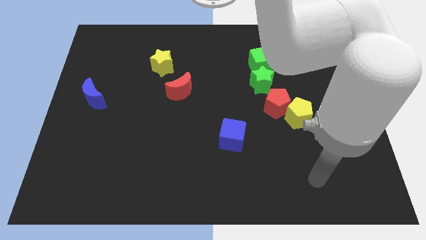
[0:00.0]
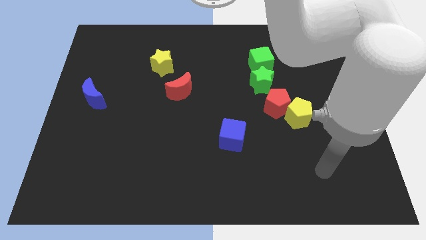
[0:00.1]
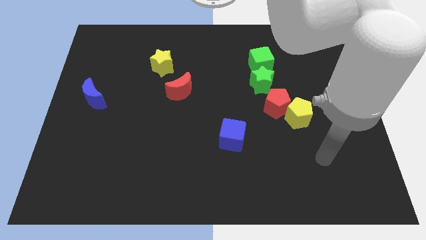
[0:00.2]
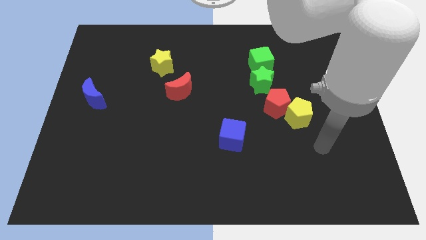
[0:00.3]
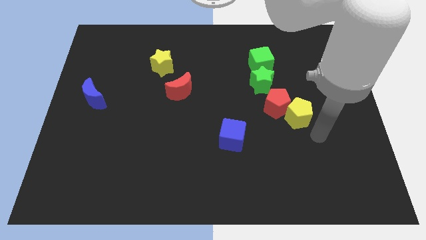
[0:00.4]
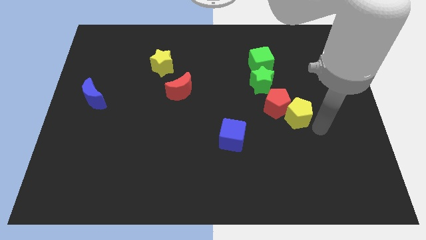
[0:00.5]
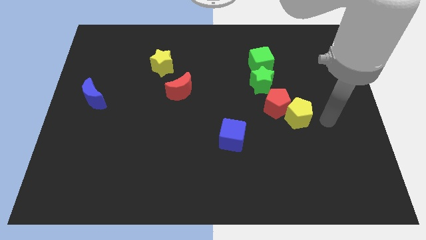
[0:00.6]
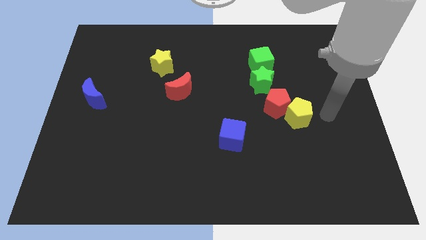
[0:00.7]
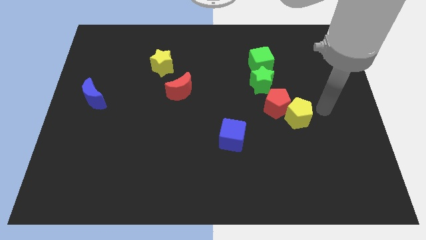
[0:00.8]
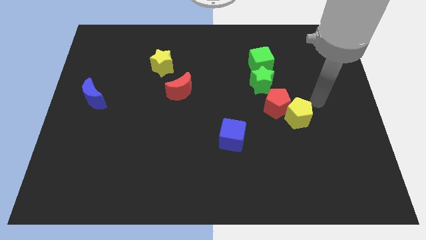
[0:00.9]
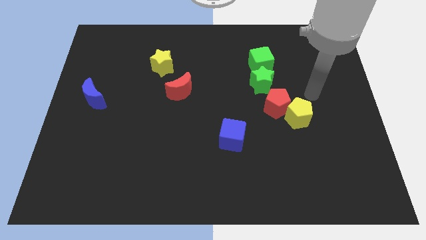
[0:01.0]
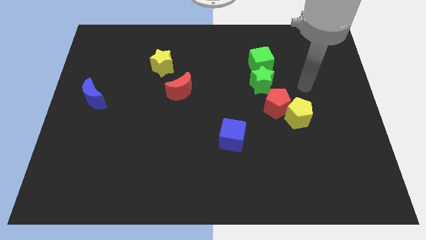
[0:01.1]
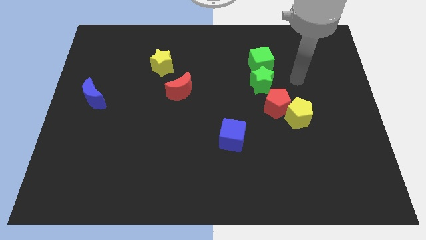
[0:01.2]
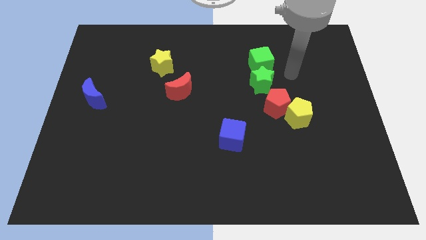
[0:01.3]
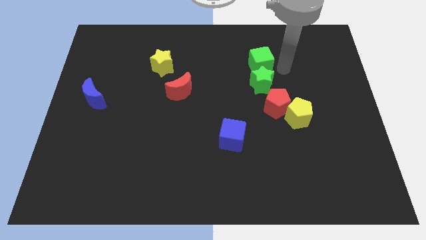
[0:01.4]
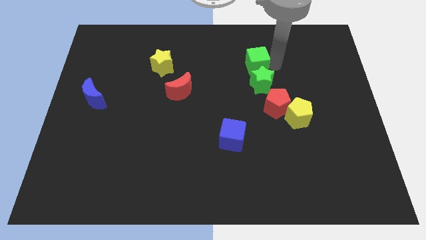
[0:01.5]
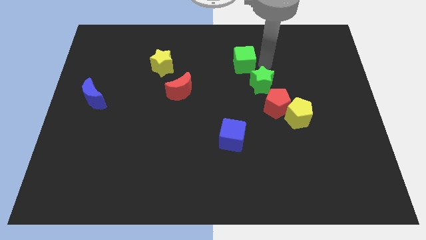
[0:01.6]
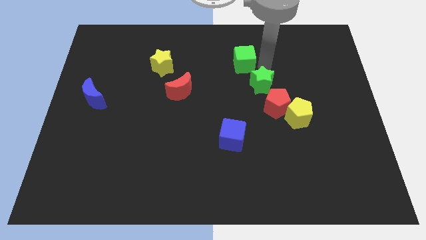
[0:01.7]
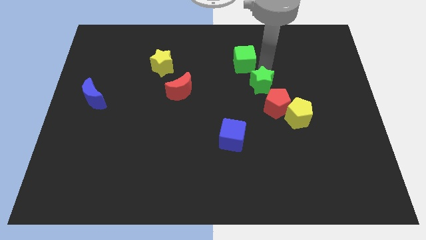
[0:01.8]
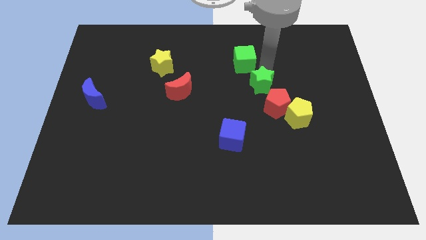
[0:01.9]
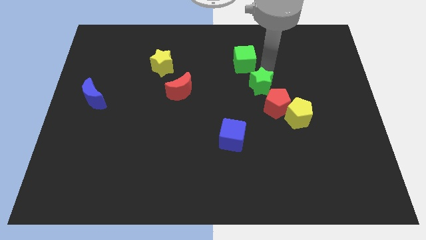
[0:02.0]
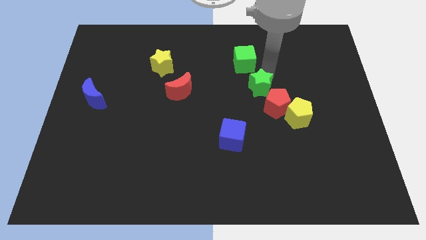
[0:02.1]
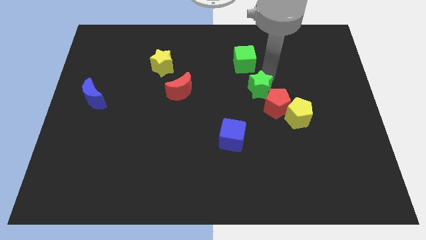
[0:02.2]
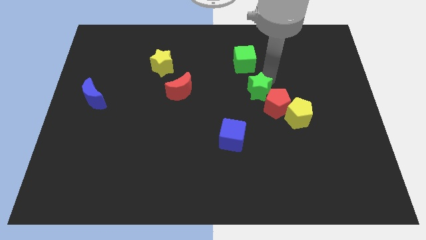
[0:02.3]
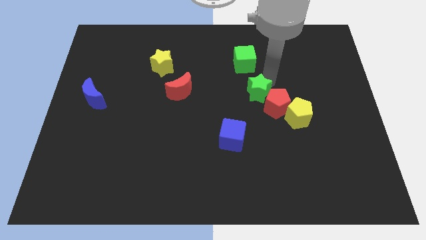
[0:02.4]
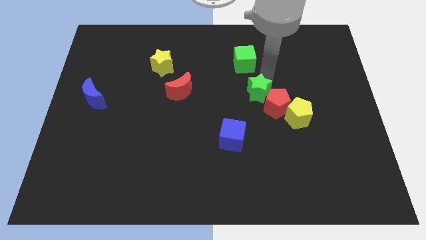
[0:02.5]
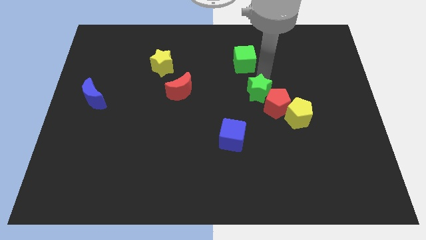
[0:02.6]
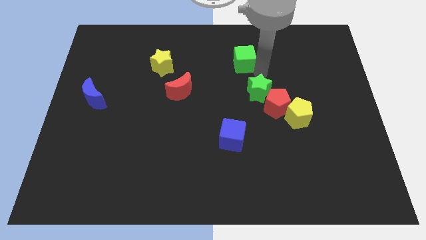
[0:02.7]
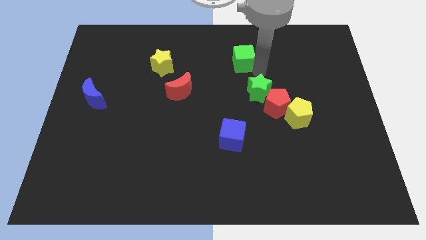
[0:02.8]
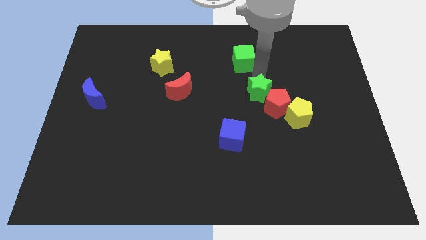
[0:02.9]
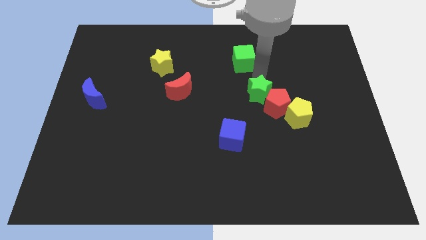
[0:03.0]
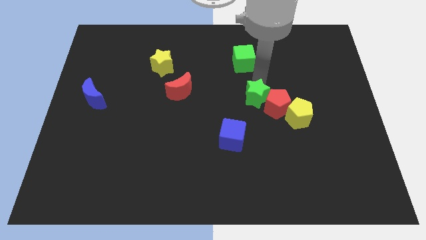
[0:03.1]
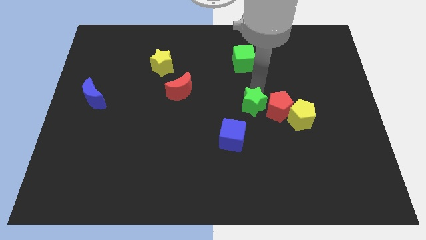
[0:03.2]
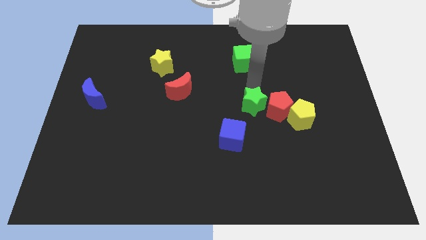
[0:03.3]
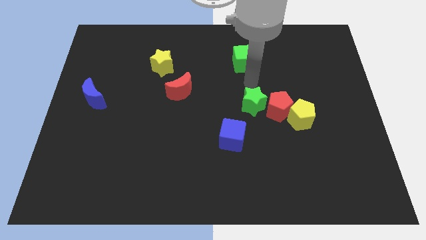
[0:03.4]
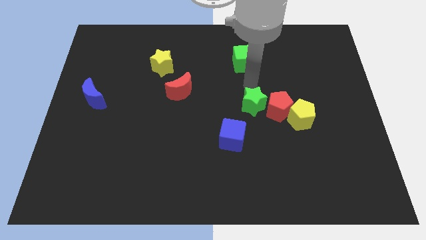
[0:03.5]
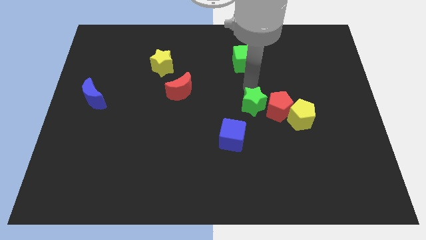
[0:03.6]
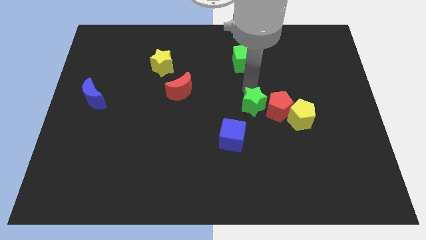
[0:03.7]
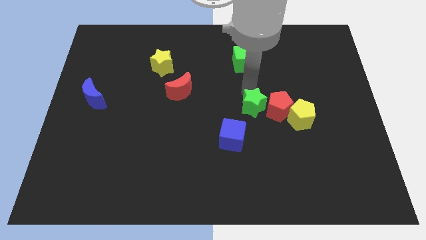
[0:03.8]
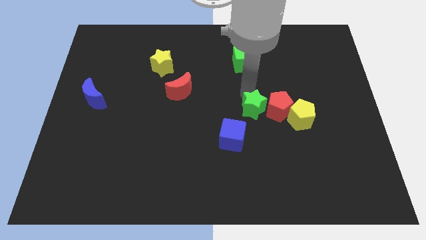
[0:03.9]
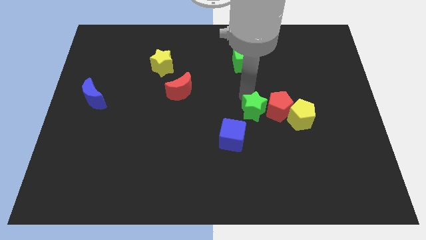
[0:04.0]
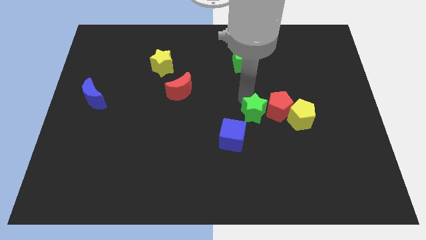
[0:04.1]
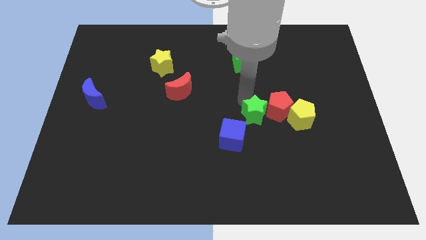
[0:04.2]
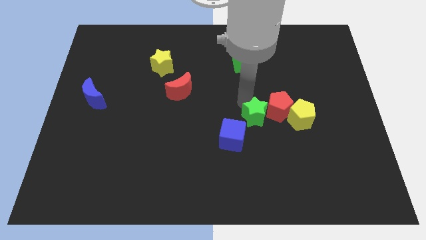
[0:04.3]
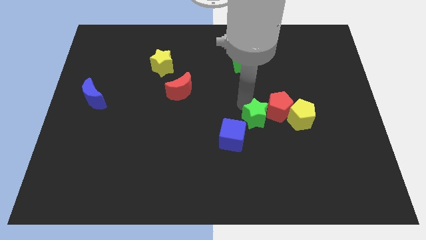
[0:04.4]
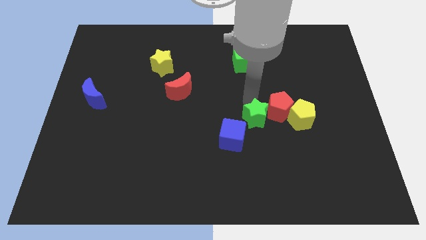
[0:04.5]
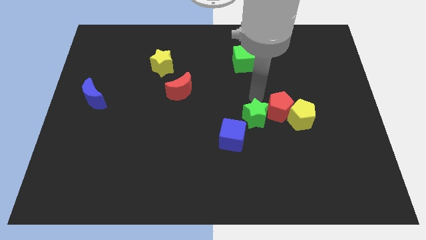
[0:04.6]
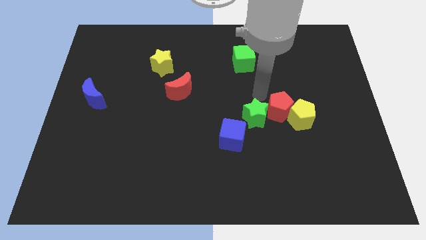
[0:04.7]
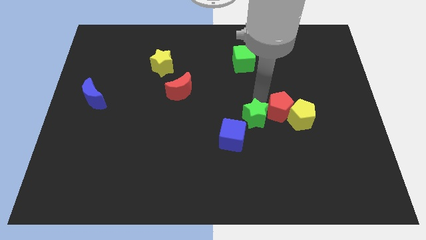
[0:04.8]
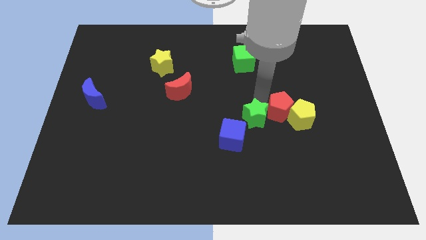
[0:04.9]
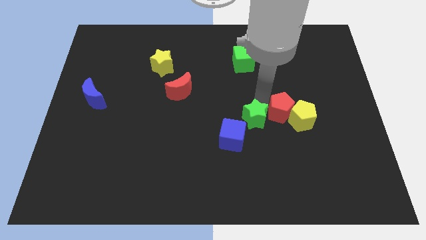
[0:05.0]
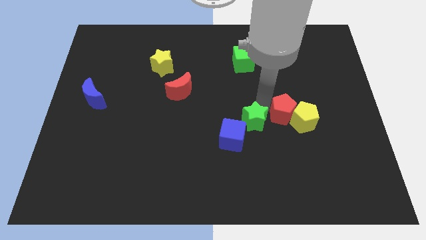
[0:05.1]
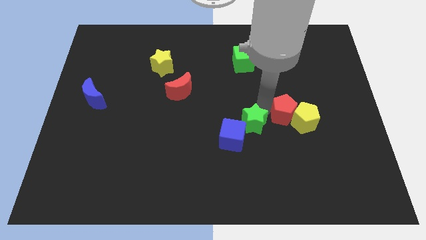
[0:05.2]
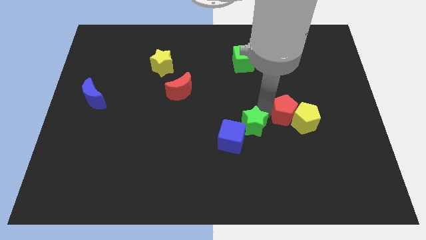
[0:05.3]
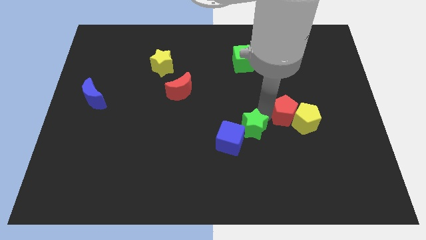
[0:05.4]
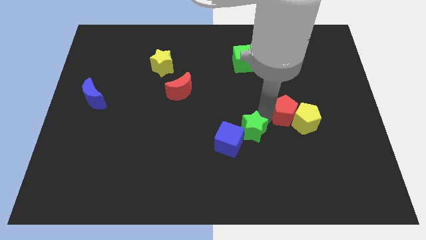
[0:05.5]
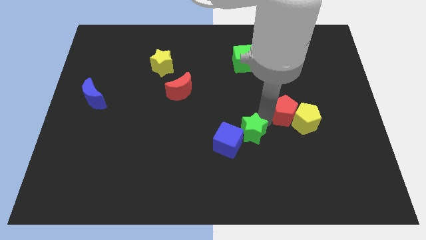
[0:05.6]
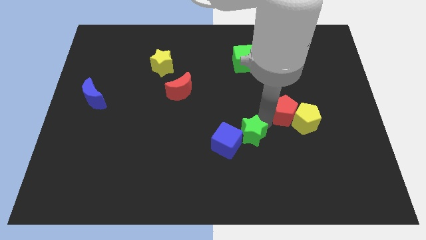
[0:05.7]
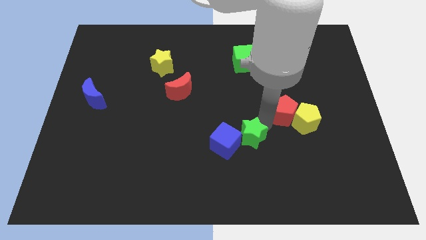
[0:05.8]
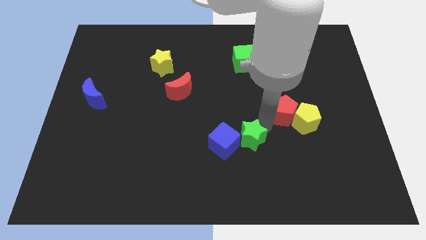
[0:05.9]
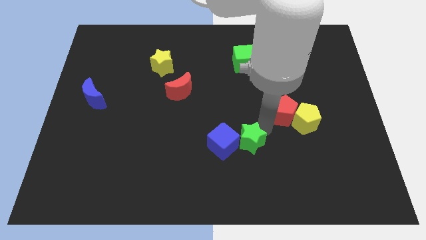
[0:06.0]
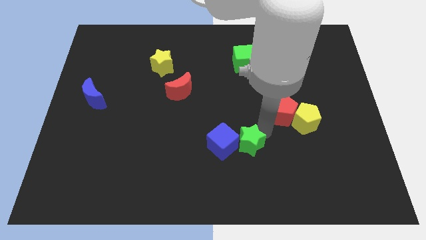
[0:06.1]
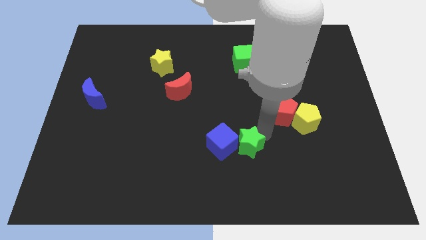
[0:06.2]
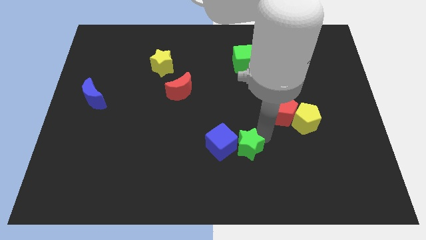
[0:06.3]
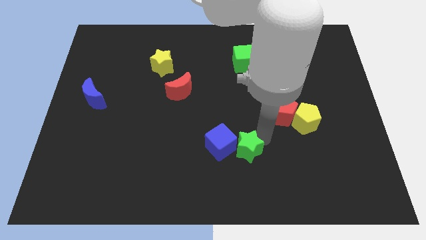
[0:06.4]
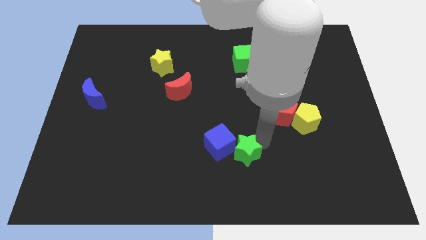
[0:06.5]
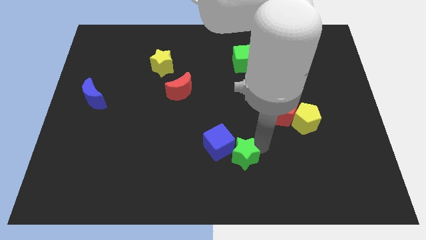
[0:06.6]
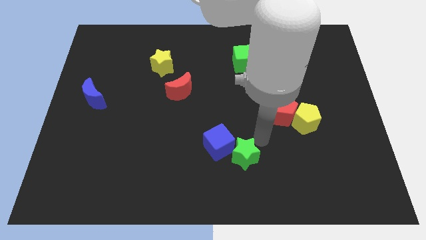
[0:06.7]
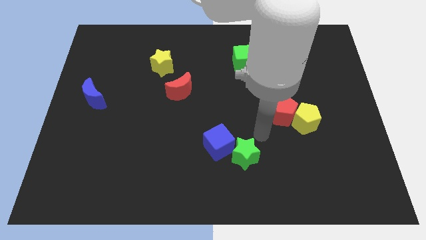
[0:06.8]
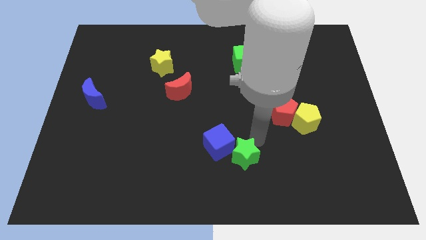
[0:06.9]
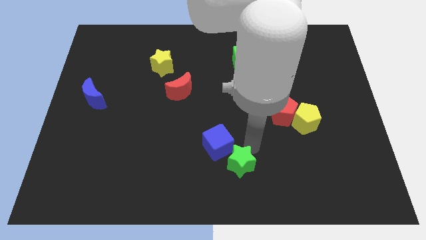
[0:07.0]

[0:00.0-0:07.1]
put the green star to the bottom of the blue cube
